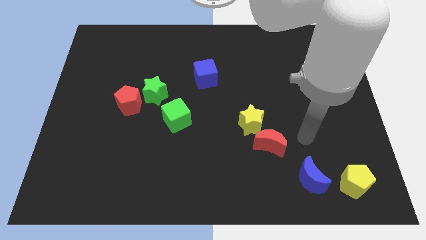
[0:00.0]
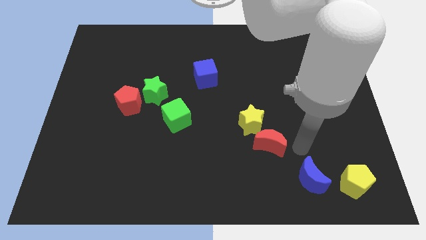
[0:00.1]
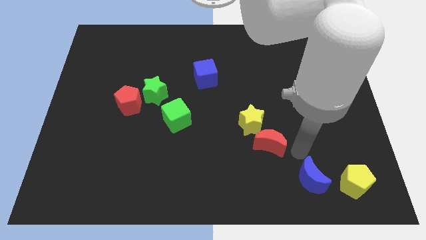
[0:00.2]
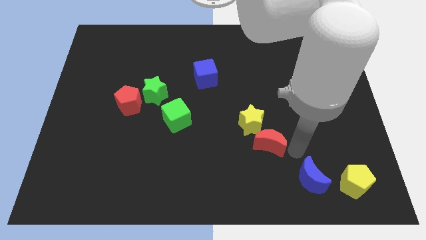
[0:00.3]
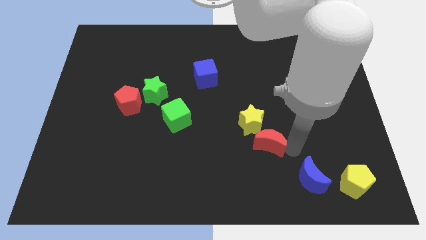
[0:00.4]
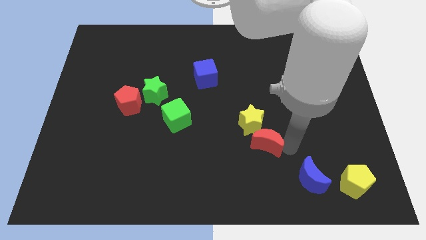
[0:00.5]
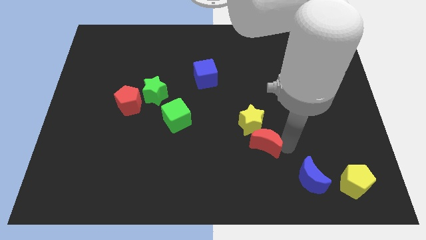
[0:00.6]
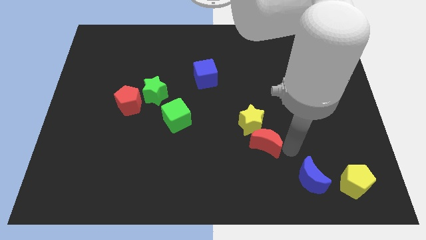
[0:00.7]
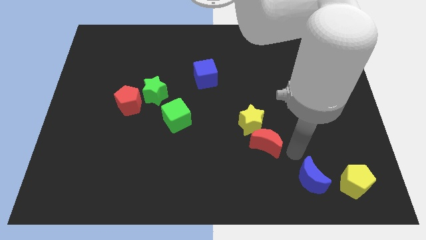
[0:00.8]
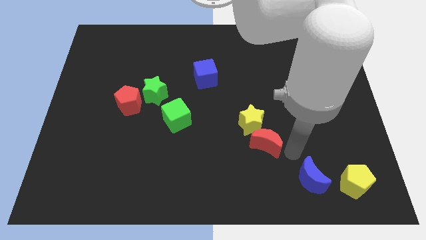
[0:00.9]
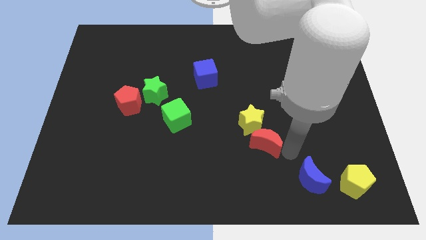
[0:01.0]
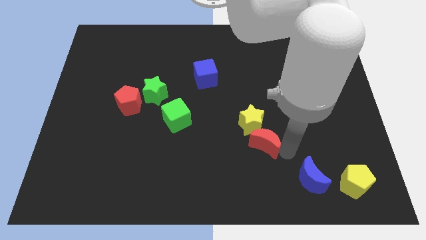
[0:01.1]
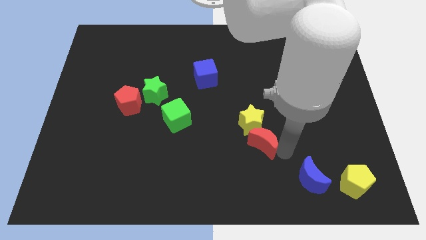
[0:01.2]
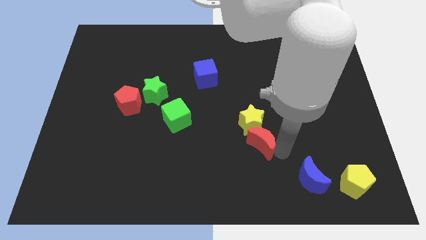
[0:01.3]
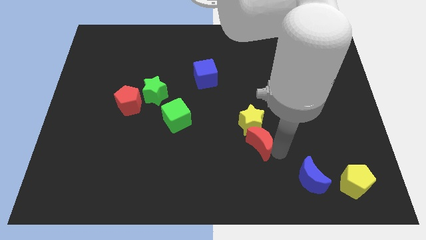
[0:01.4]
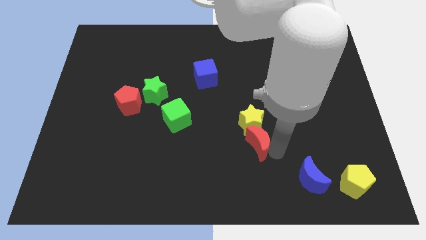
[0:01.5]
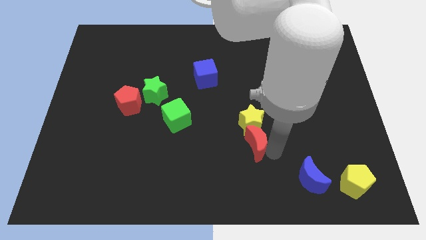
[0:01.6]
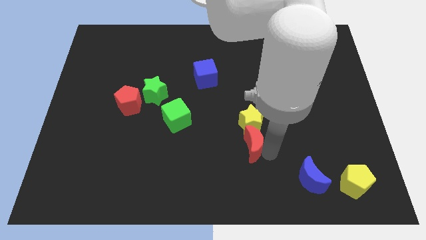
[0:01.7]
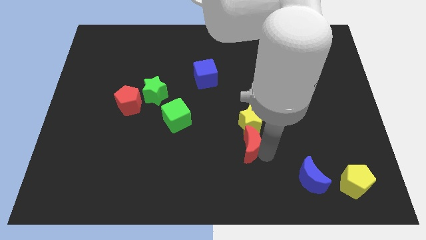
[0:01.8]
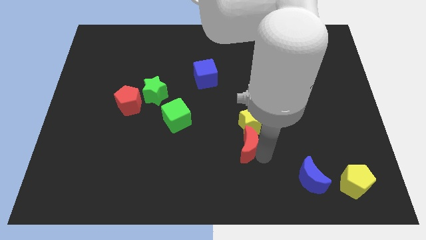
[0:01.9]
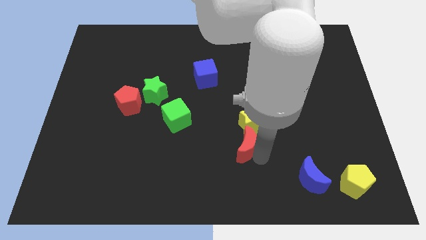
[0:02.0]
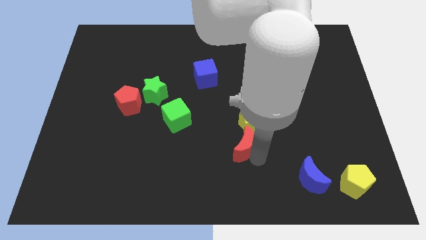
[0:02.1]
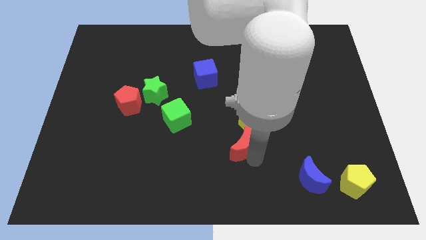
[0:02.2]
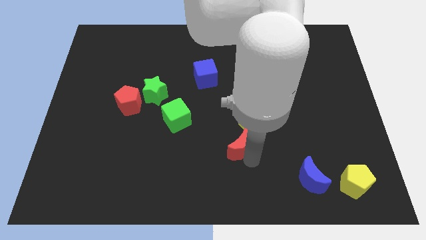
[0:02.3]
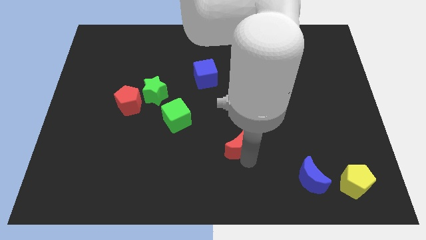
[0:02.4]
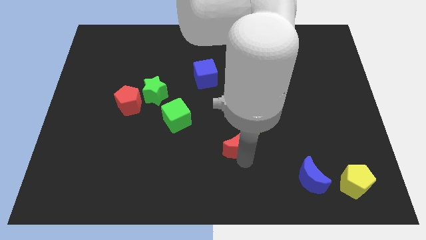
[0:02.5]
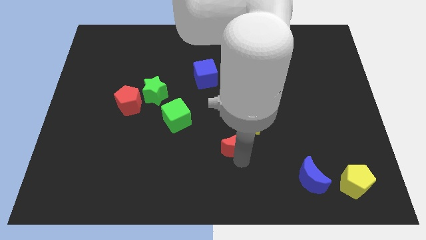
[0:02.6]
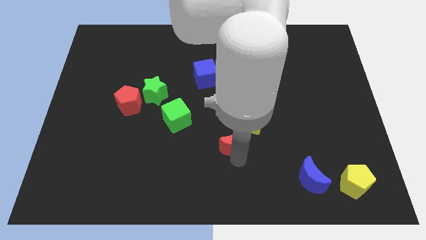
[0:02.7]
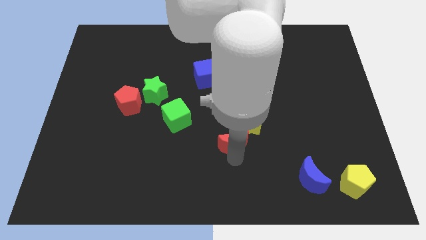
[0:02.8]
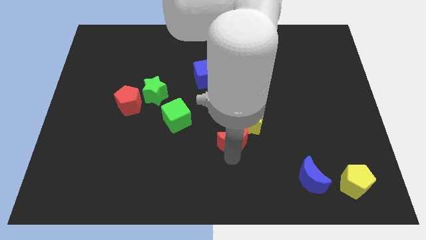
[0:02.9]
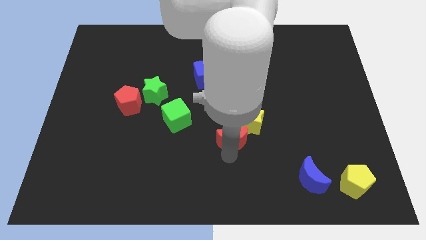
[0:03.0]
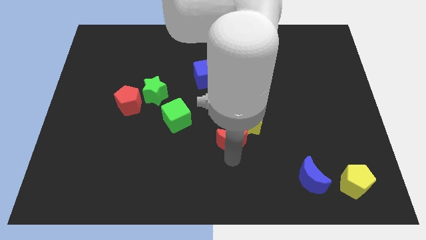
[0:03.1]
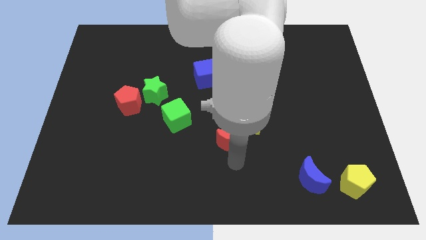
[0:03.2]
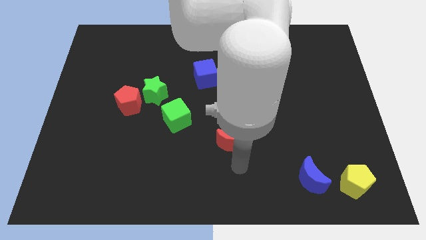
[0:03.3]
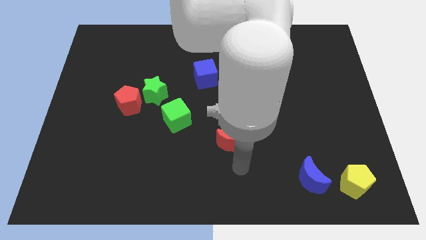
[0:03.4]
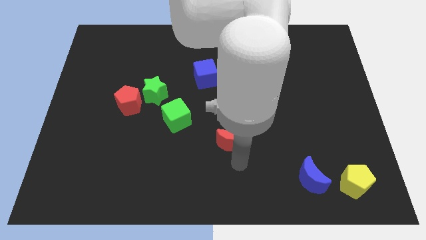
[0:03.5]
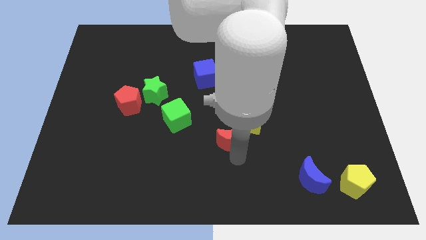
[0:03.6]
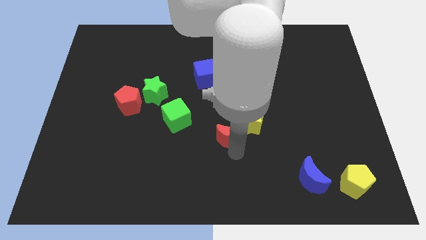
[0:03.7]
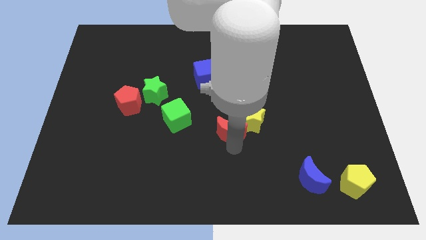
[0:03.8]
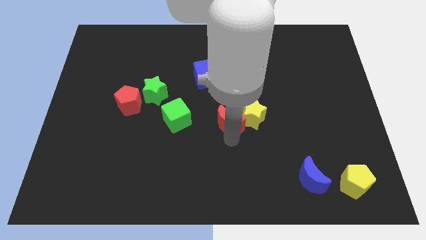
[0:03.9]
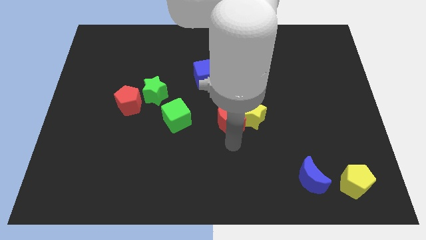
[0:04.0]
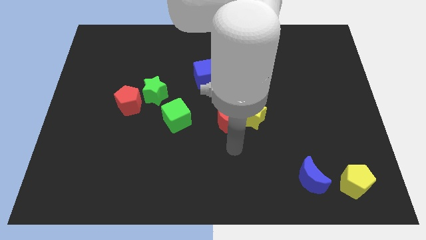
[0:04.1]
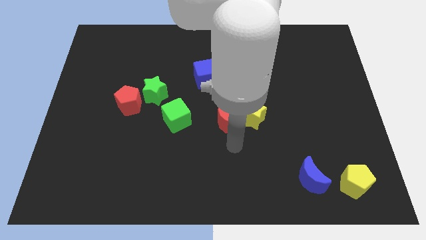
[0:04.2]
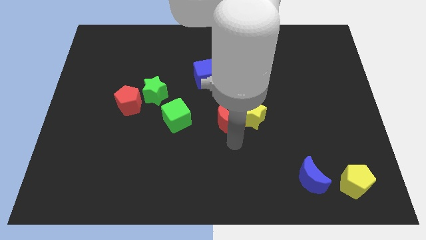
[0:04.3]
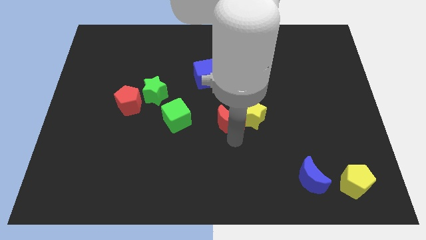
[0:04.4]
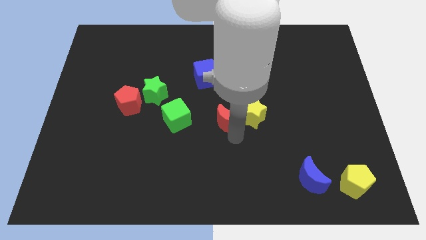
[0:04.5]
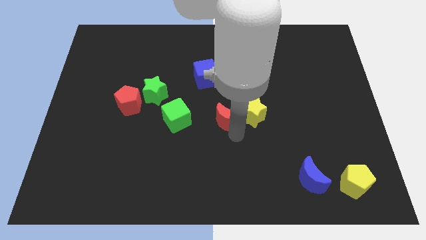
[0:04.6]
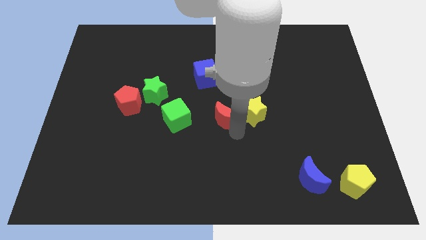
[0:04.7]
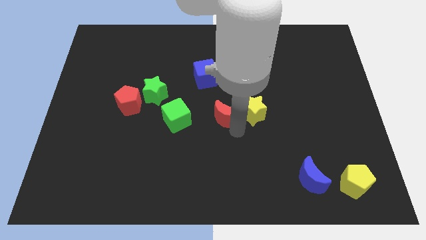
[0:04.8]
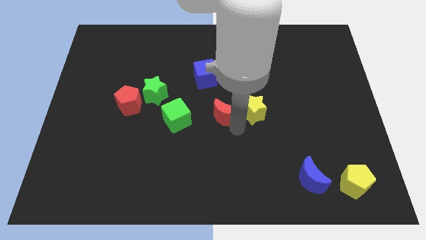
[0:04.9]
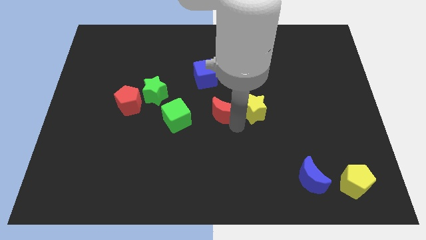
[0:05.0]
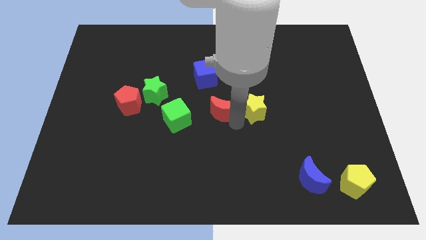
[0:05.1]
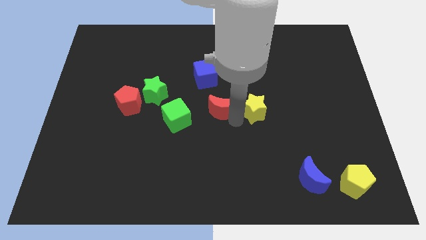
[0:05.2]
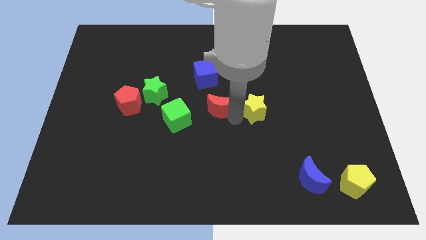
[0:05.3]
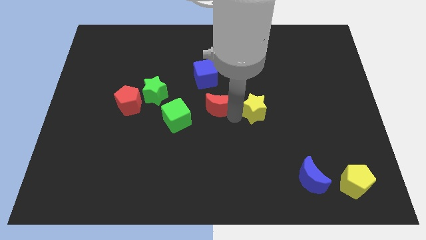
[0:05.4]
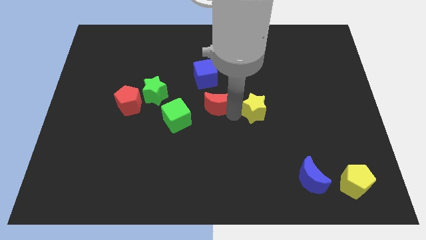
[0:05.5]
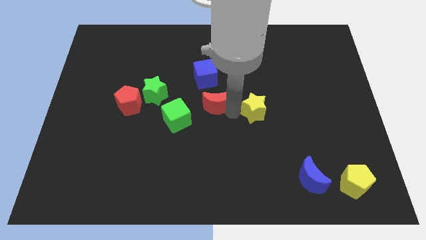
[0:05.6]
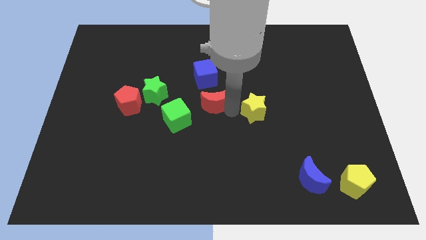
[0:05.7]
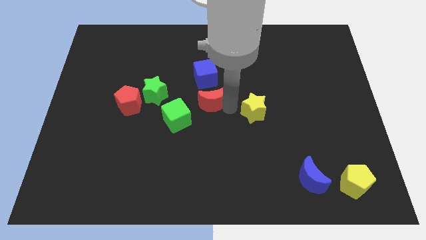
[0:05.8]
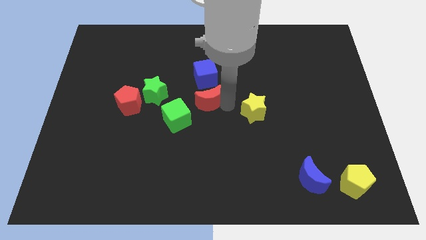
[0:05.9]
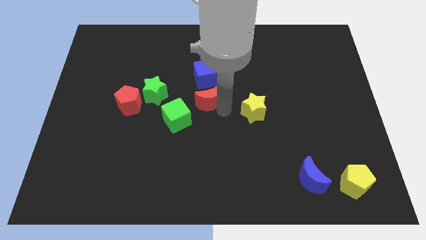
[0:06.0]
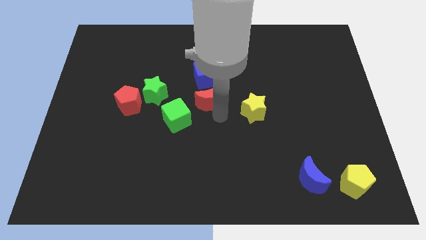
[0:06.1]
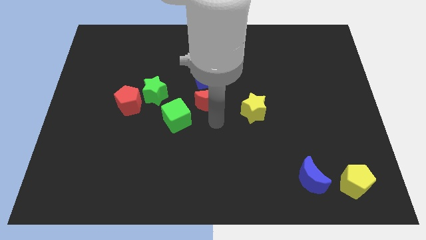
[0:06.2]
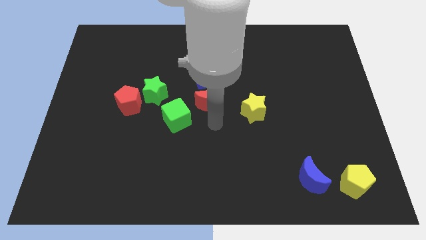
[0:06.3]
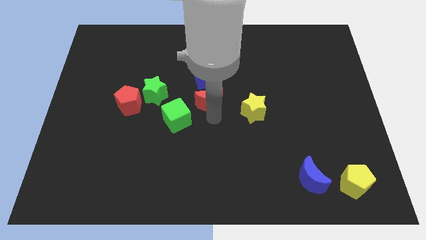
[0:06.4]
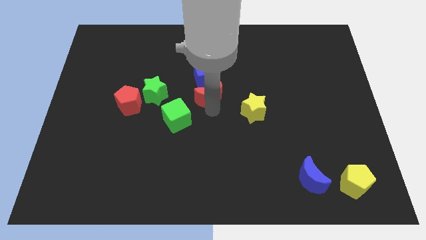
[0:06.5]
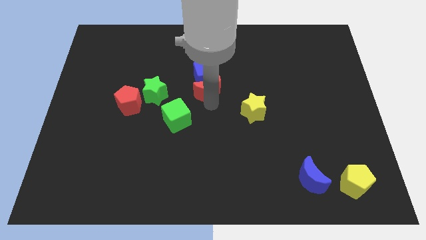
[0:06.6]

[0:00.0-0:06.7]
move the red moon next to the blue cube

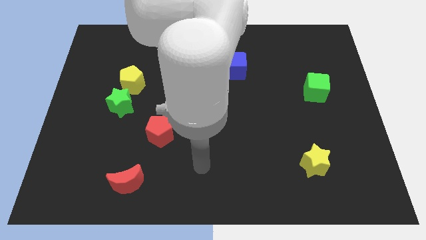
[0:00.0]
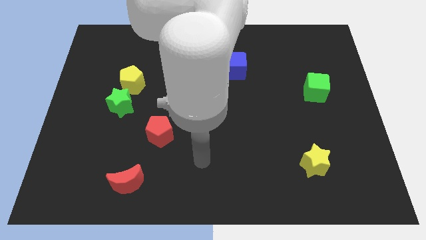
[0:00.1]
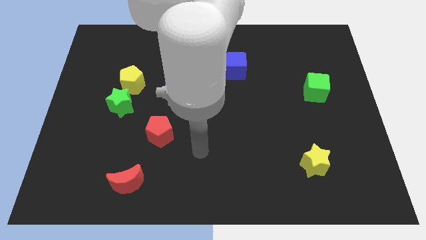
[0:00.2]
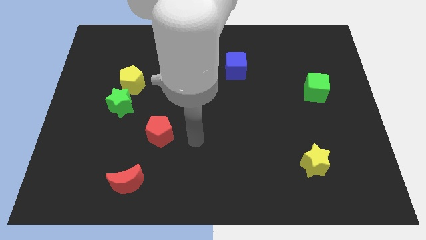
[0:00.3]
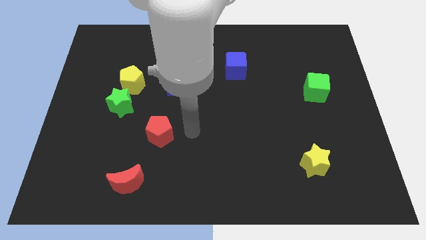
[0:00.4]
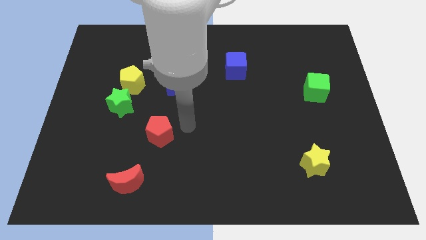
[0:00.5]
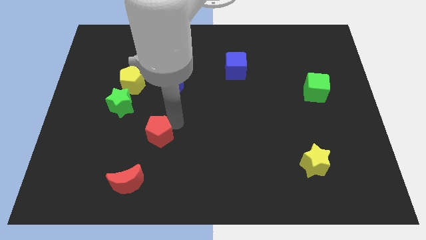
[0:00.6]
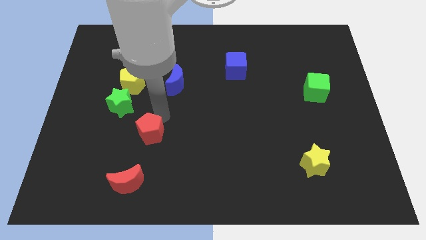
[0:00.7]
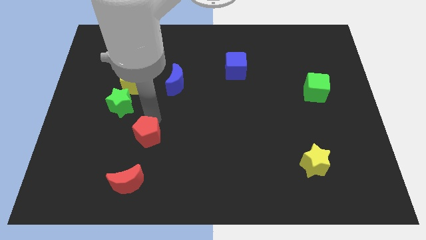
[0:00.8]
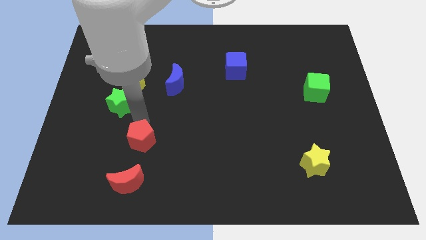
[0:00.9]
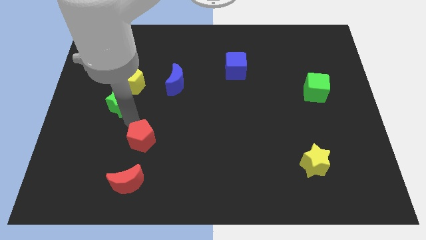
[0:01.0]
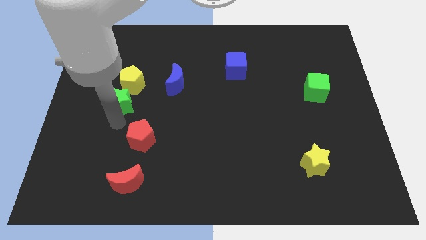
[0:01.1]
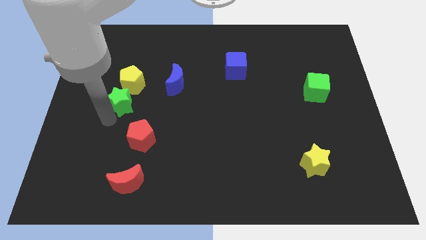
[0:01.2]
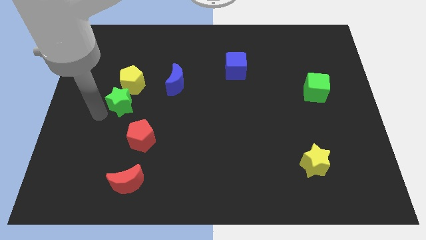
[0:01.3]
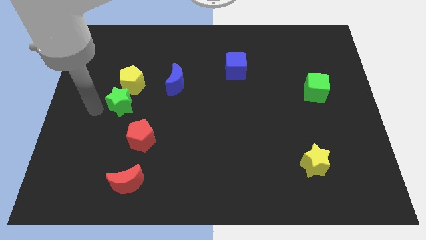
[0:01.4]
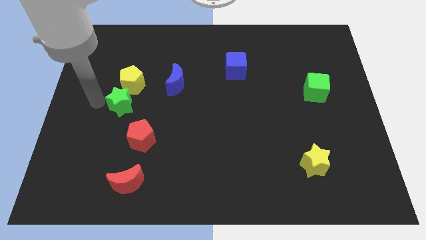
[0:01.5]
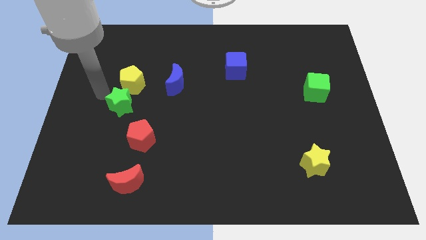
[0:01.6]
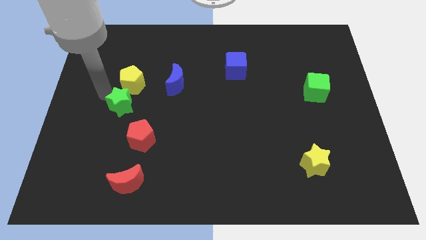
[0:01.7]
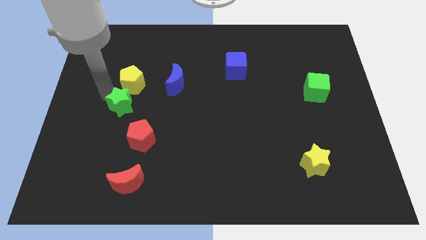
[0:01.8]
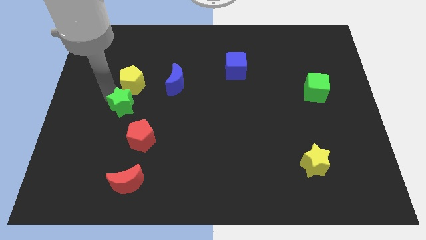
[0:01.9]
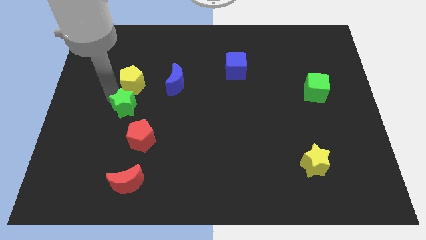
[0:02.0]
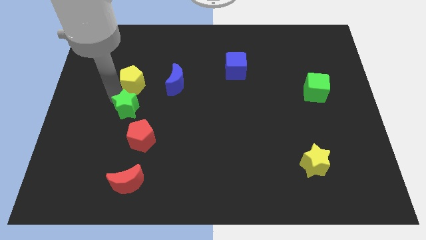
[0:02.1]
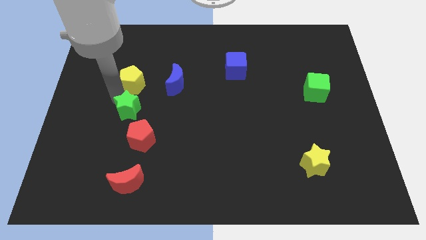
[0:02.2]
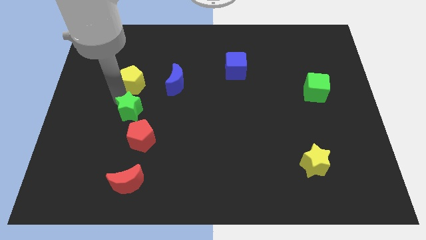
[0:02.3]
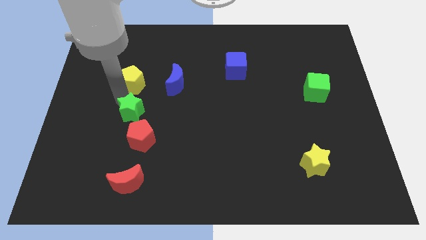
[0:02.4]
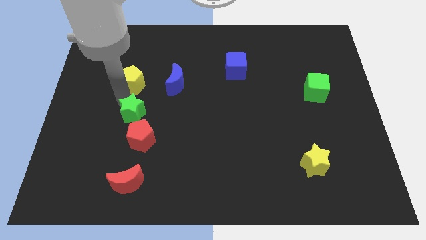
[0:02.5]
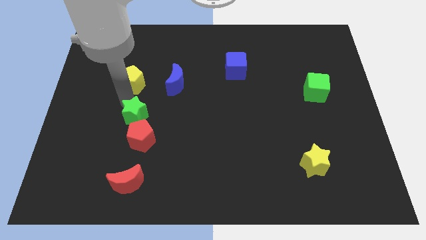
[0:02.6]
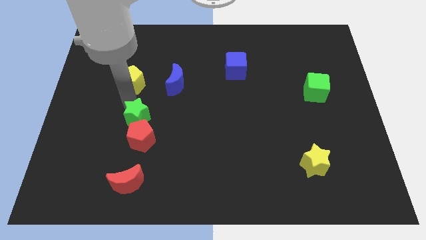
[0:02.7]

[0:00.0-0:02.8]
slide the green star next to the red pentagon
